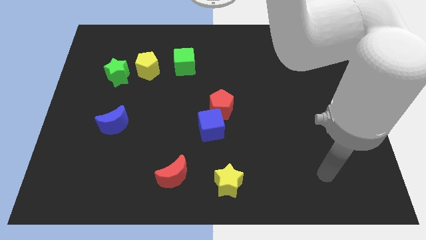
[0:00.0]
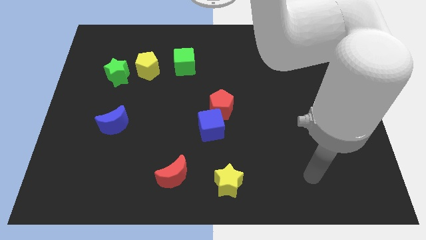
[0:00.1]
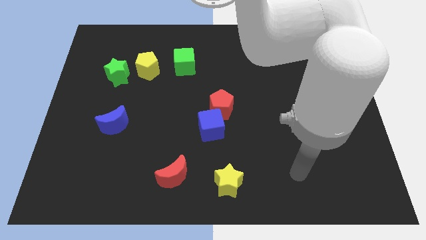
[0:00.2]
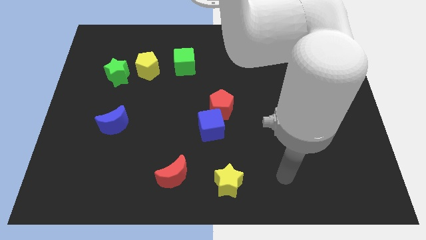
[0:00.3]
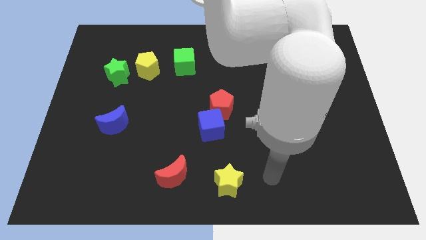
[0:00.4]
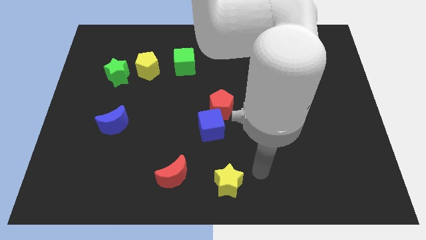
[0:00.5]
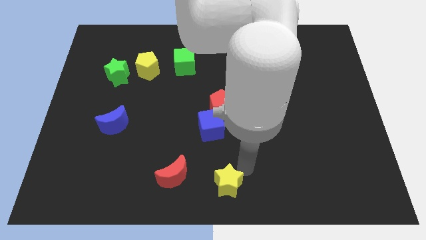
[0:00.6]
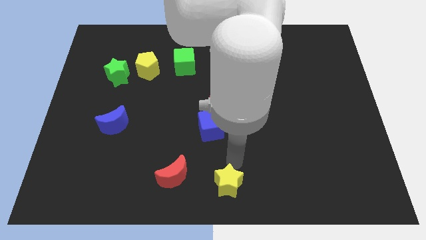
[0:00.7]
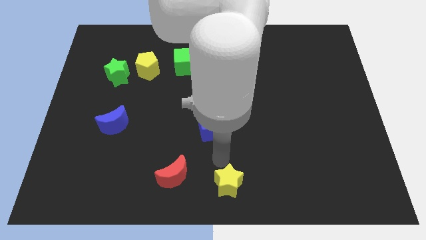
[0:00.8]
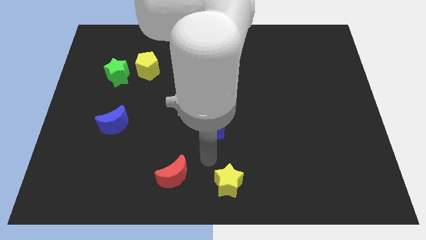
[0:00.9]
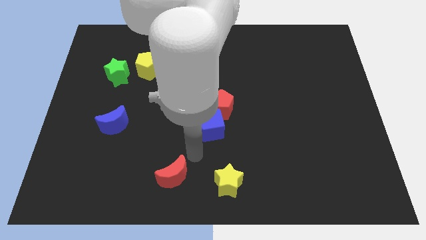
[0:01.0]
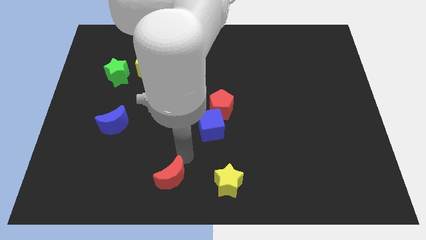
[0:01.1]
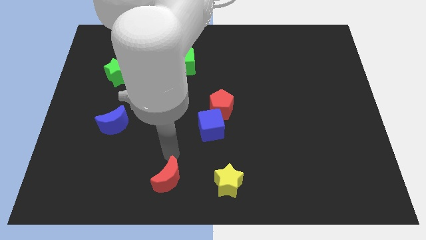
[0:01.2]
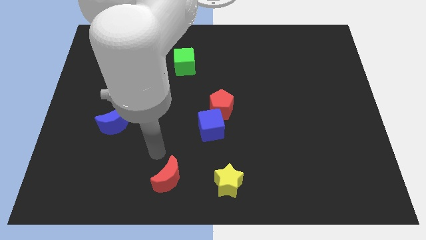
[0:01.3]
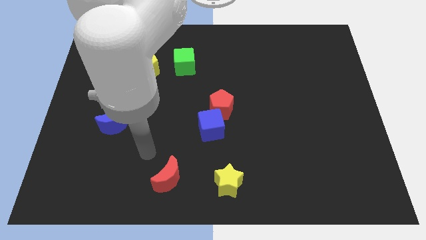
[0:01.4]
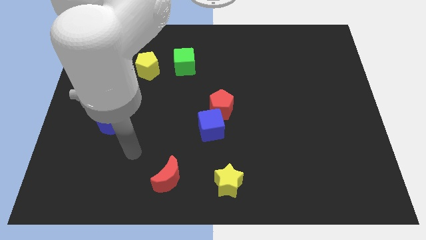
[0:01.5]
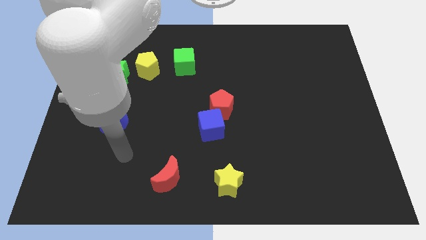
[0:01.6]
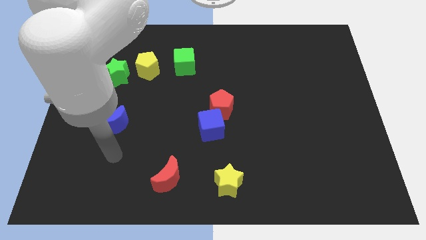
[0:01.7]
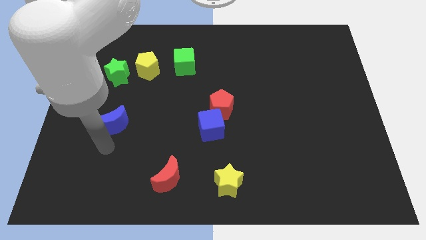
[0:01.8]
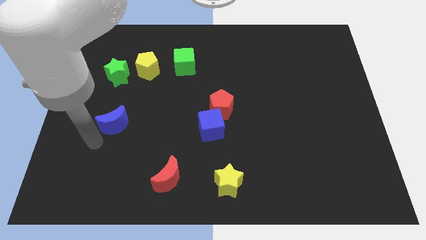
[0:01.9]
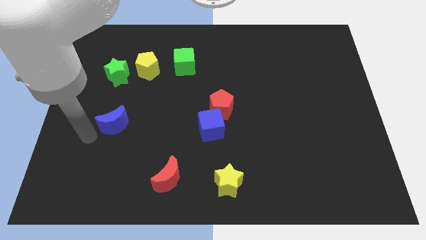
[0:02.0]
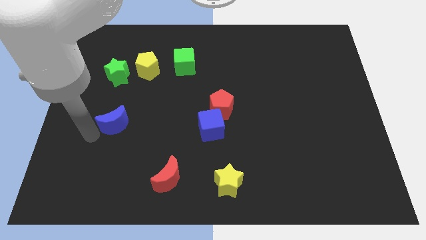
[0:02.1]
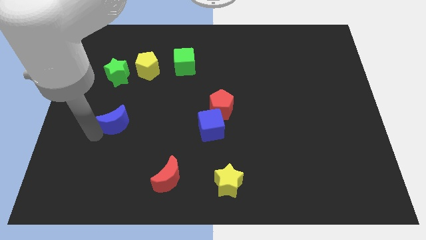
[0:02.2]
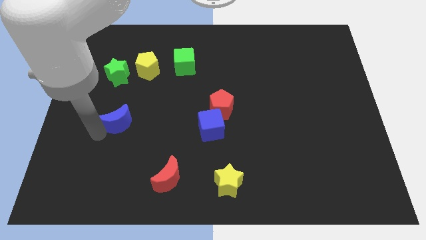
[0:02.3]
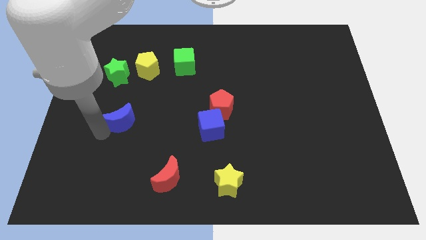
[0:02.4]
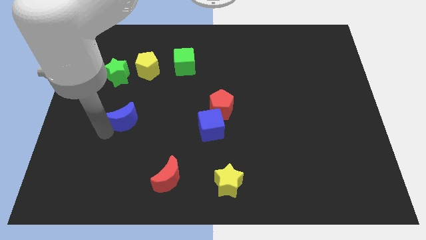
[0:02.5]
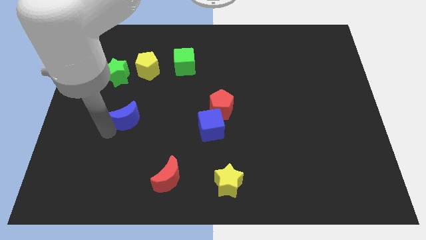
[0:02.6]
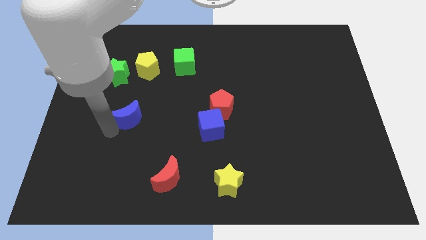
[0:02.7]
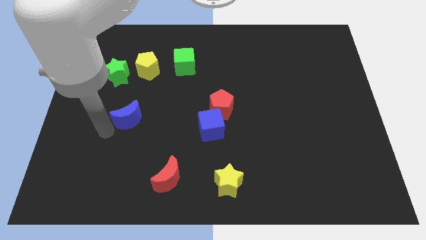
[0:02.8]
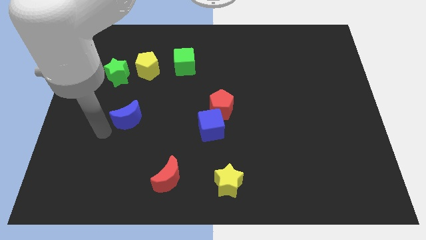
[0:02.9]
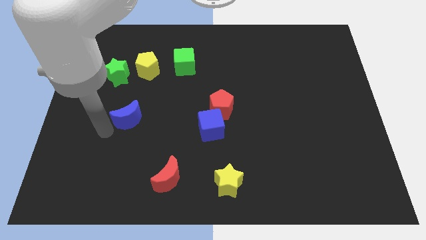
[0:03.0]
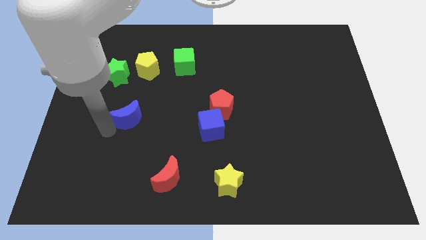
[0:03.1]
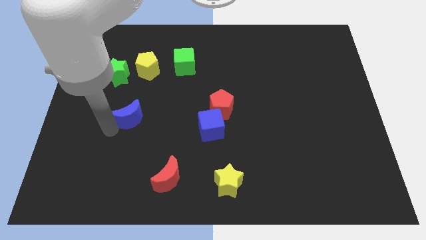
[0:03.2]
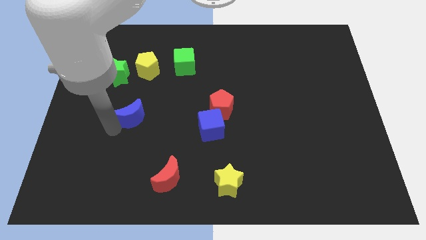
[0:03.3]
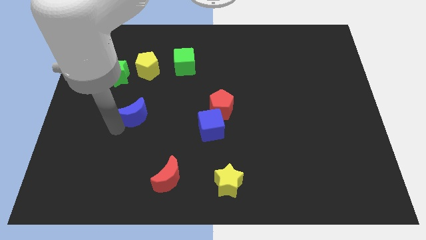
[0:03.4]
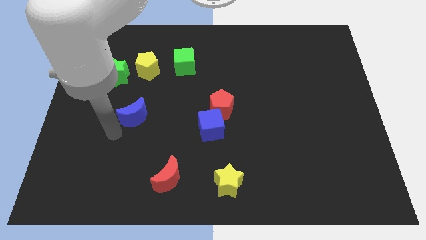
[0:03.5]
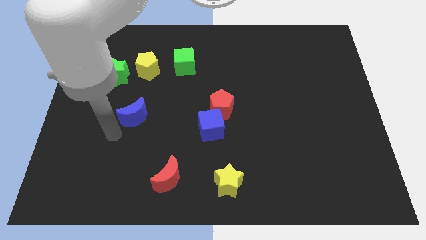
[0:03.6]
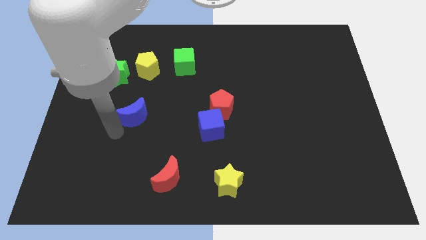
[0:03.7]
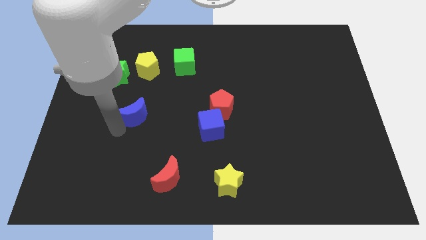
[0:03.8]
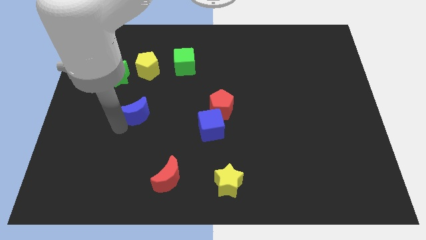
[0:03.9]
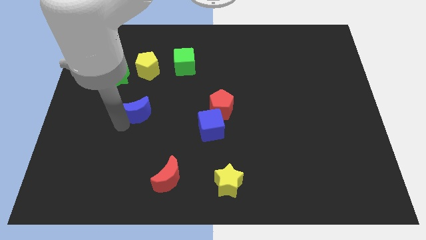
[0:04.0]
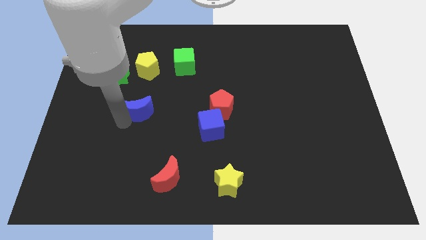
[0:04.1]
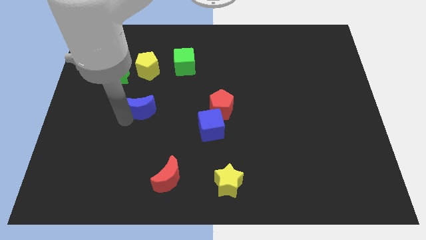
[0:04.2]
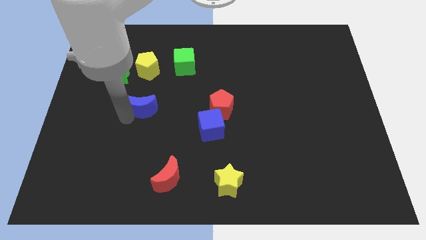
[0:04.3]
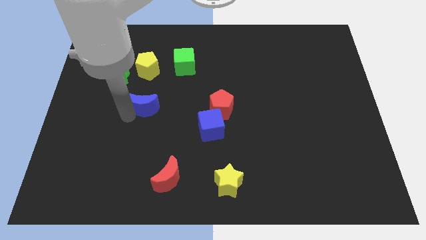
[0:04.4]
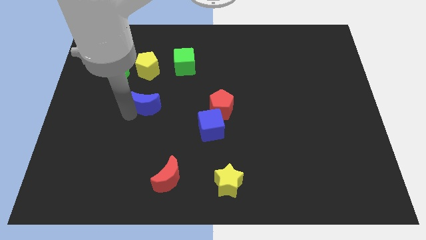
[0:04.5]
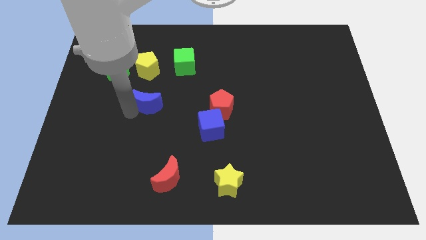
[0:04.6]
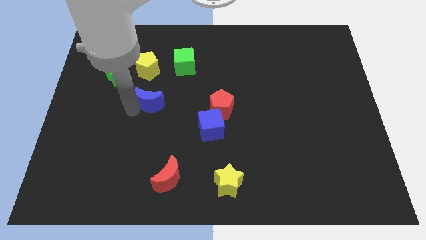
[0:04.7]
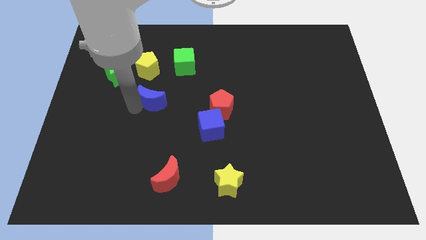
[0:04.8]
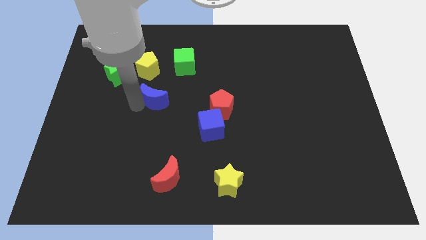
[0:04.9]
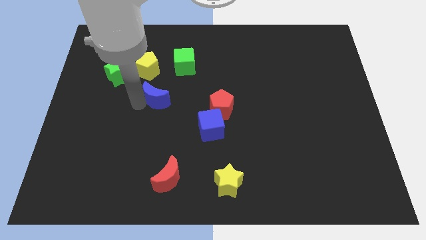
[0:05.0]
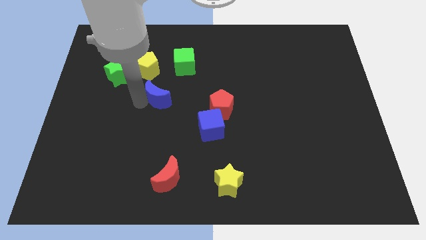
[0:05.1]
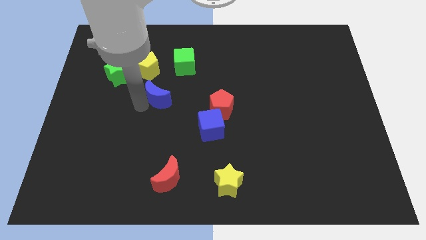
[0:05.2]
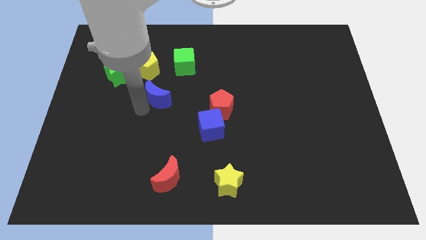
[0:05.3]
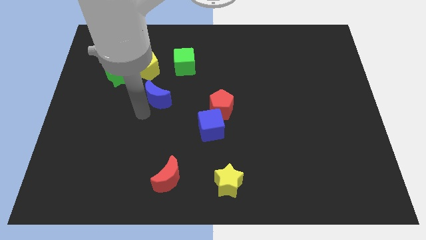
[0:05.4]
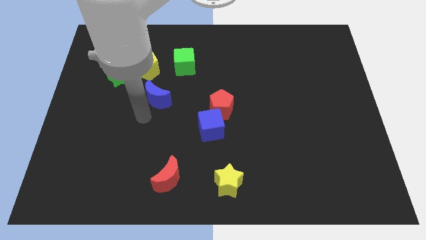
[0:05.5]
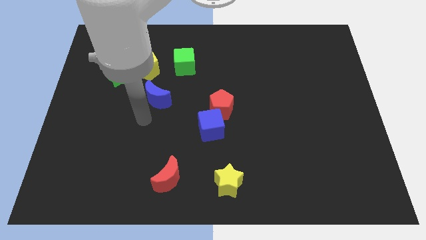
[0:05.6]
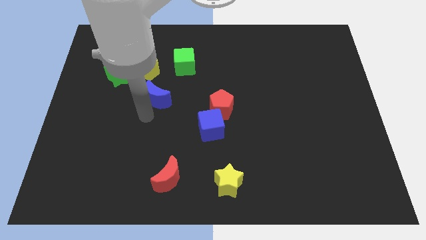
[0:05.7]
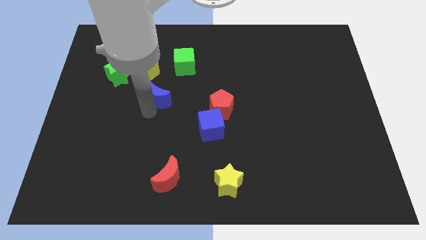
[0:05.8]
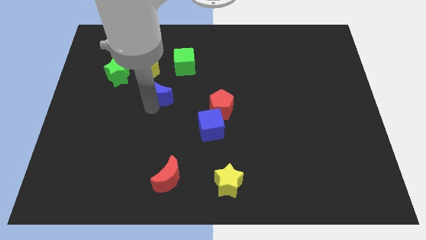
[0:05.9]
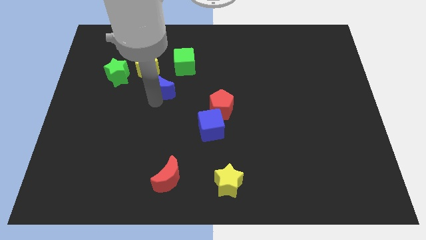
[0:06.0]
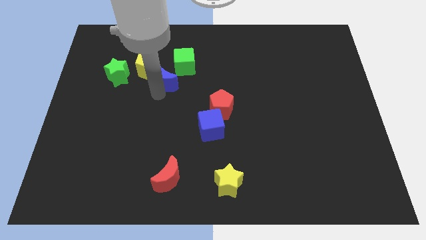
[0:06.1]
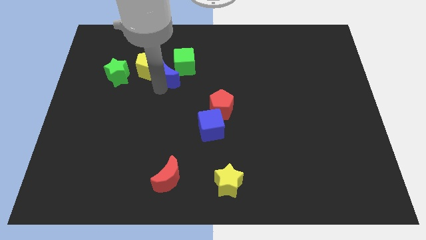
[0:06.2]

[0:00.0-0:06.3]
push the blue moon towards the green cube

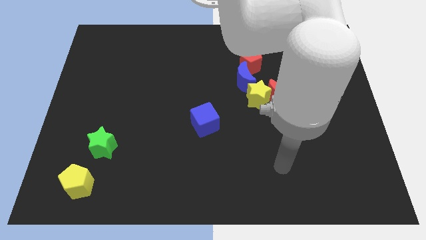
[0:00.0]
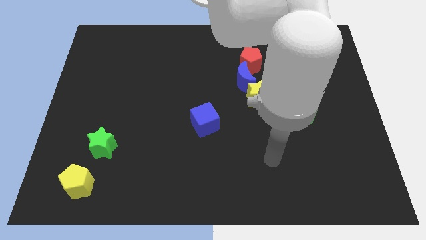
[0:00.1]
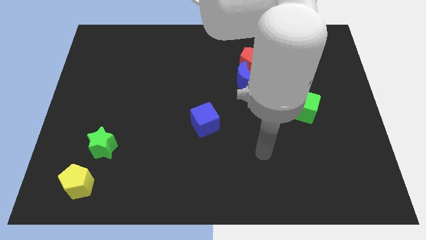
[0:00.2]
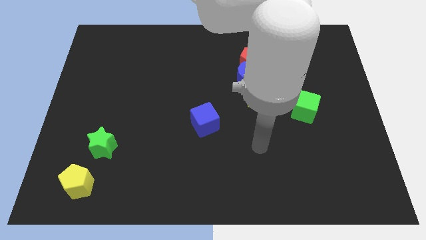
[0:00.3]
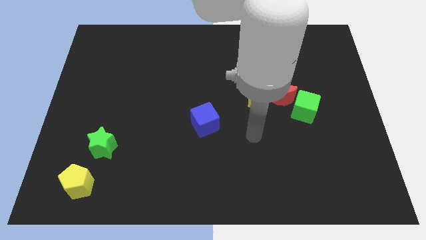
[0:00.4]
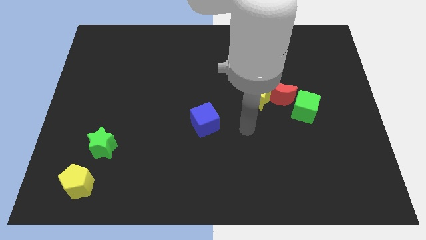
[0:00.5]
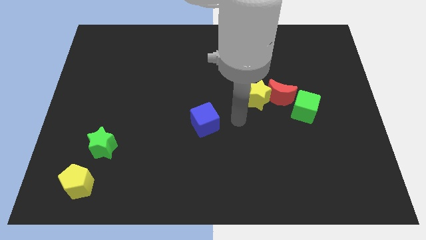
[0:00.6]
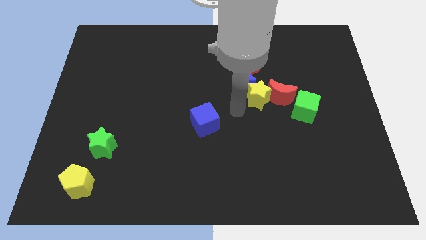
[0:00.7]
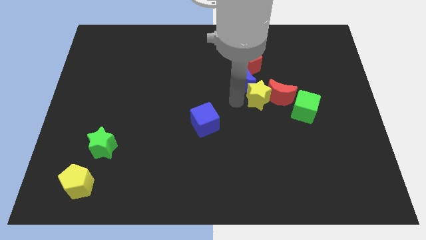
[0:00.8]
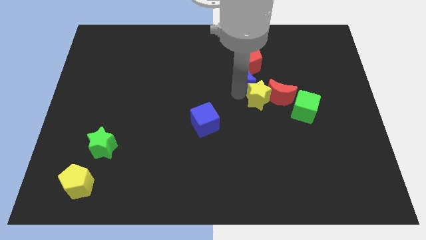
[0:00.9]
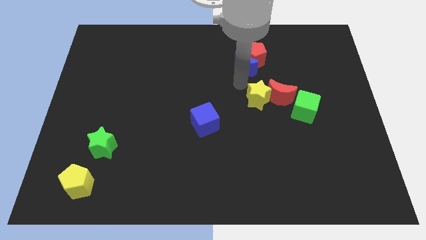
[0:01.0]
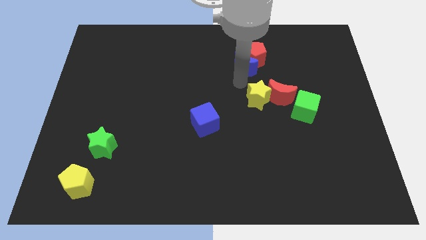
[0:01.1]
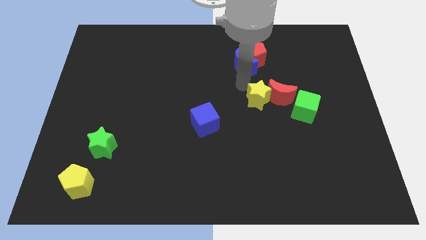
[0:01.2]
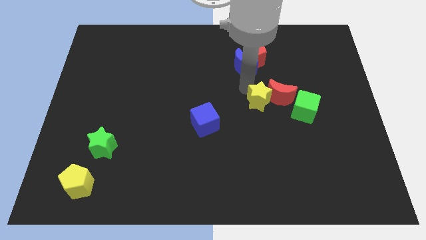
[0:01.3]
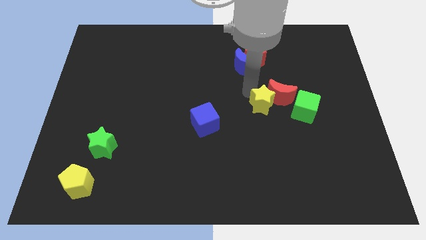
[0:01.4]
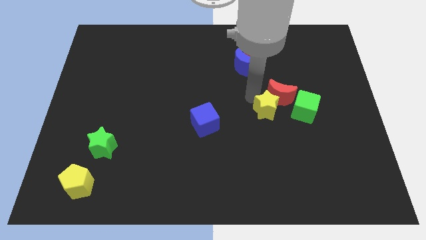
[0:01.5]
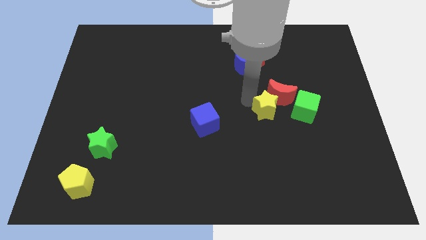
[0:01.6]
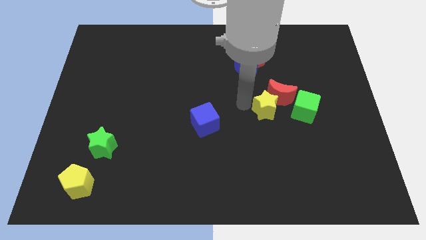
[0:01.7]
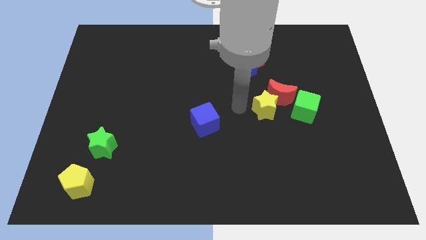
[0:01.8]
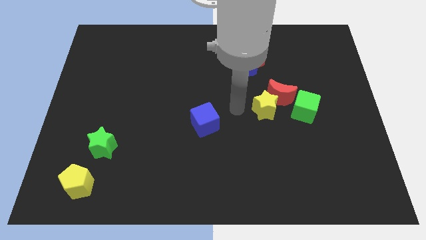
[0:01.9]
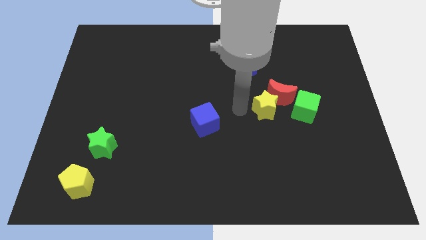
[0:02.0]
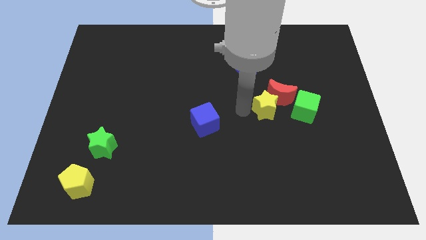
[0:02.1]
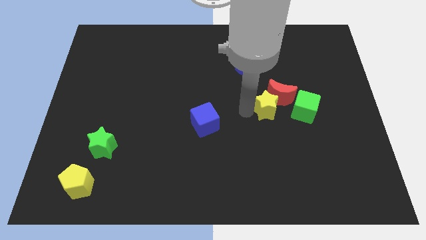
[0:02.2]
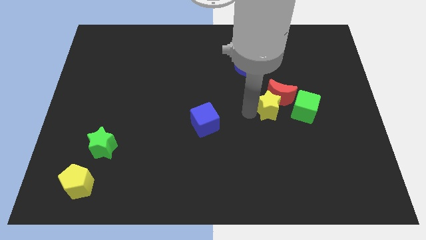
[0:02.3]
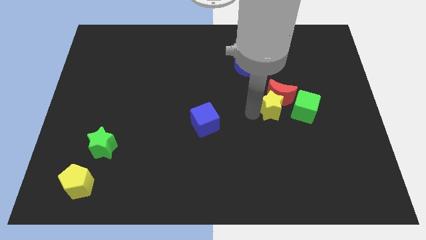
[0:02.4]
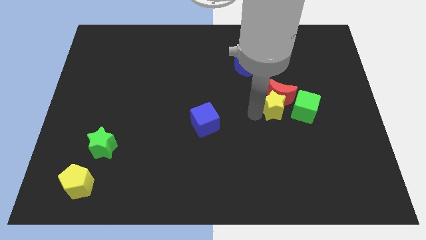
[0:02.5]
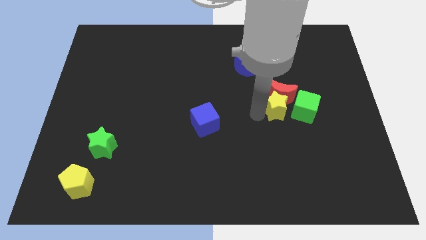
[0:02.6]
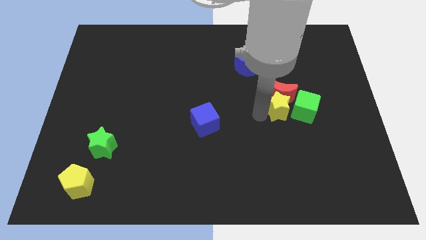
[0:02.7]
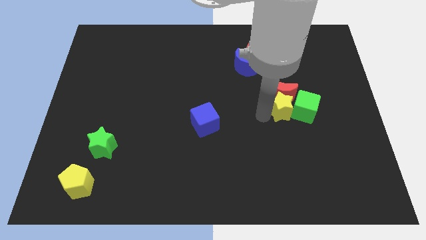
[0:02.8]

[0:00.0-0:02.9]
move the yellow star next to the green cube
